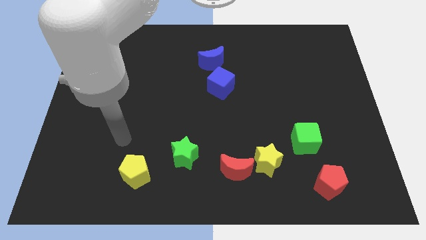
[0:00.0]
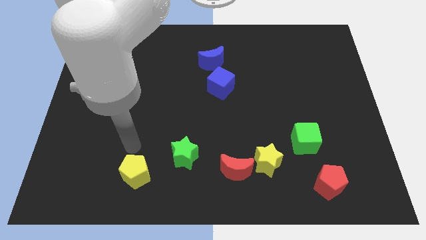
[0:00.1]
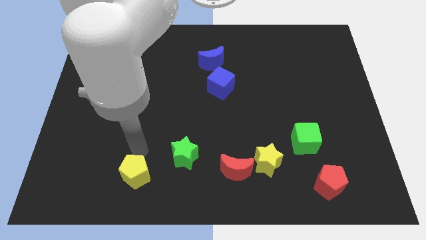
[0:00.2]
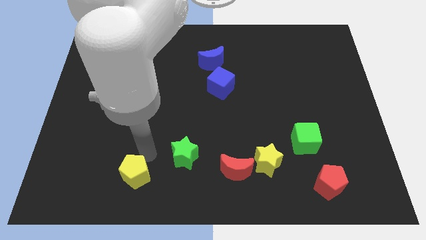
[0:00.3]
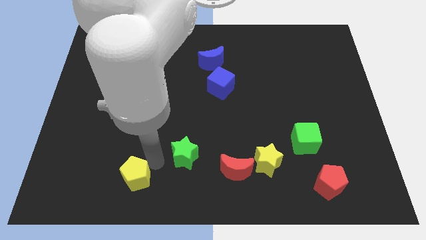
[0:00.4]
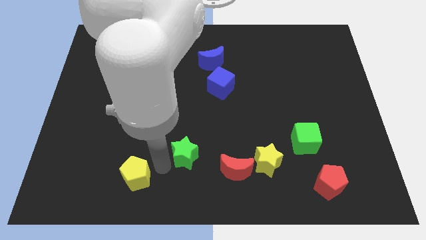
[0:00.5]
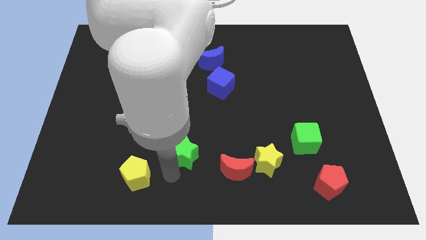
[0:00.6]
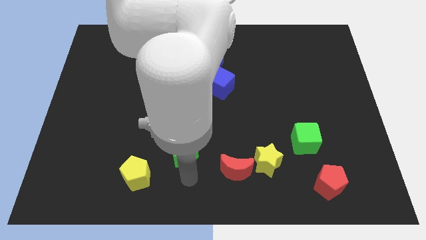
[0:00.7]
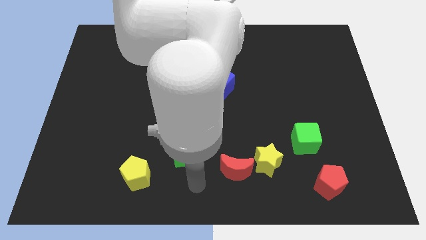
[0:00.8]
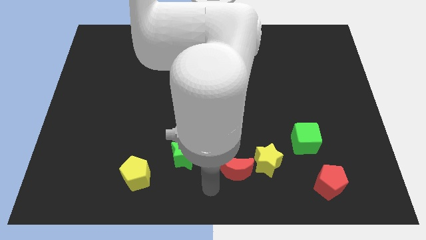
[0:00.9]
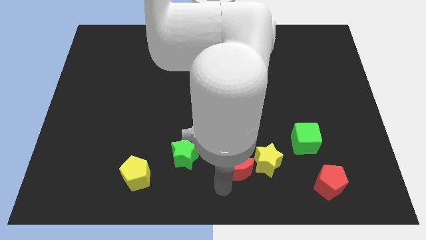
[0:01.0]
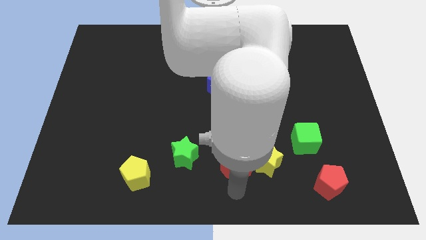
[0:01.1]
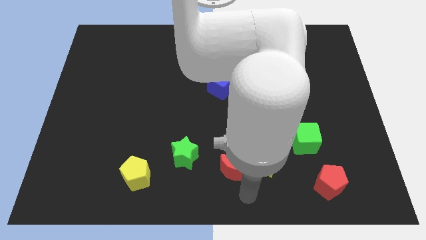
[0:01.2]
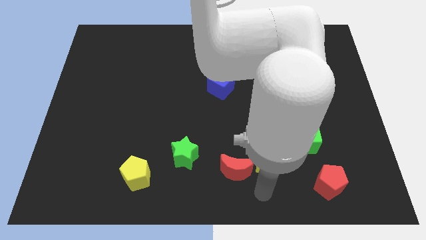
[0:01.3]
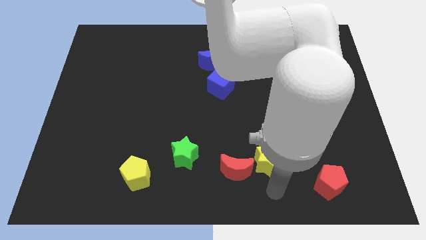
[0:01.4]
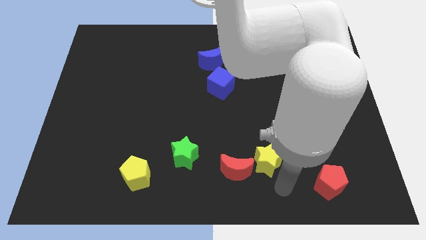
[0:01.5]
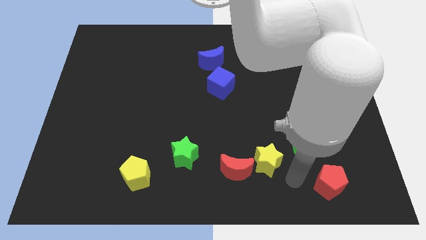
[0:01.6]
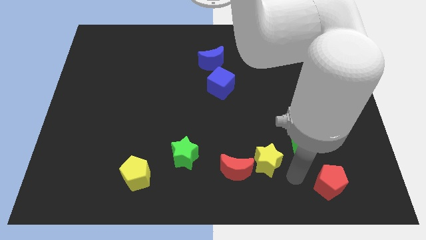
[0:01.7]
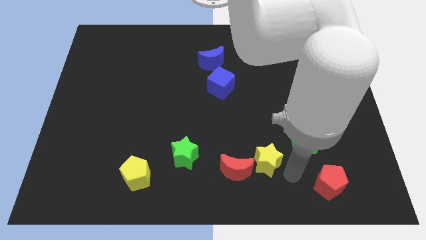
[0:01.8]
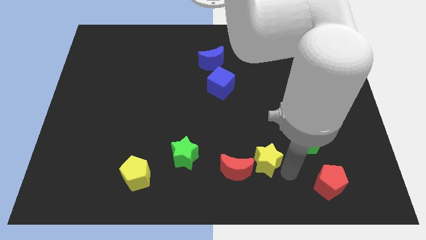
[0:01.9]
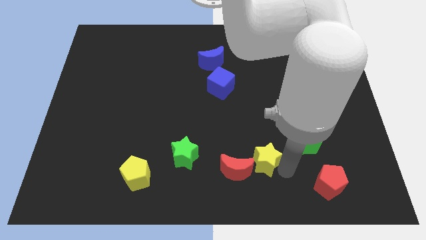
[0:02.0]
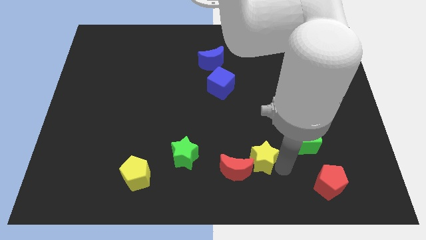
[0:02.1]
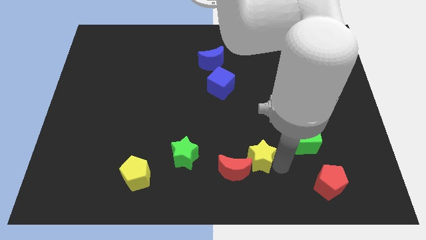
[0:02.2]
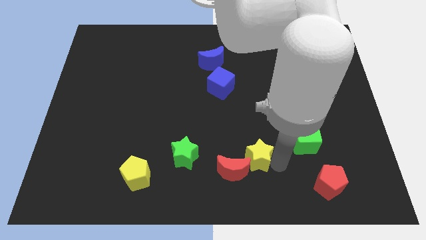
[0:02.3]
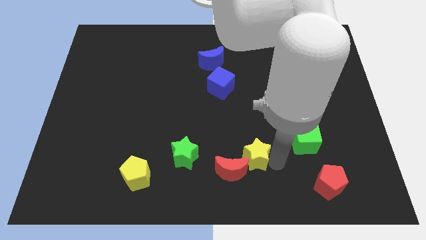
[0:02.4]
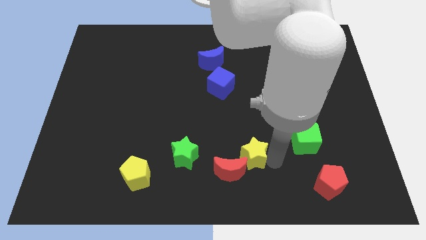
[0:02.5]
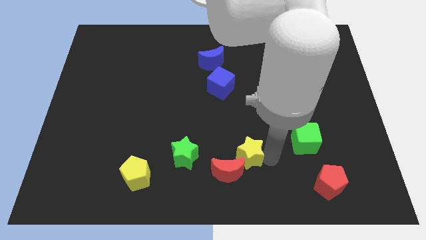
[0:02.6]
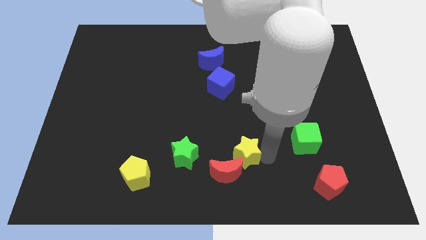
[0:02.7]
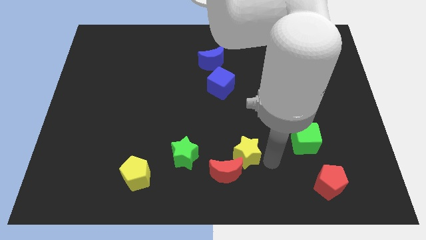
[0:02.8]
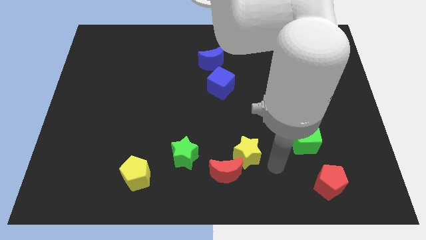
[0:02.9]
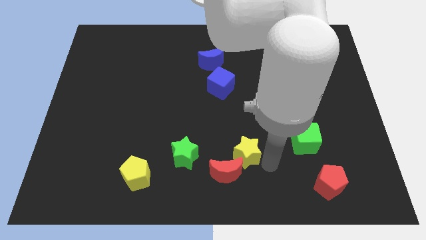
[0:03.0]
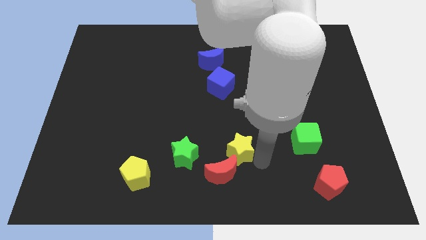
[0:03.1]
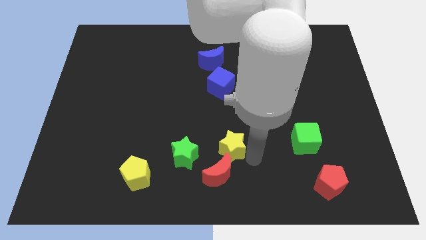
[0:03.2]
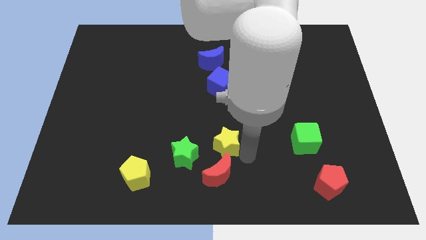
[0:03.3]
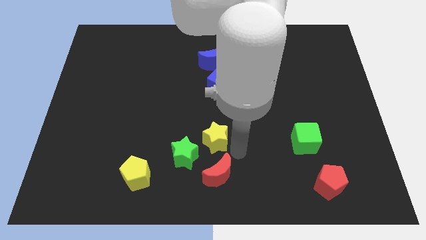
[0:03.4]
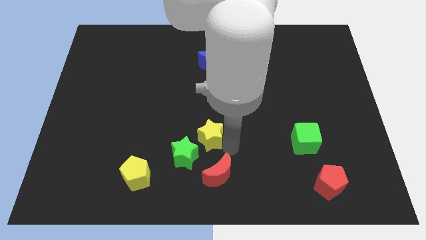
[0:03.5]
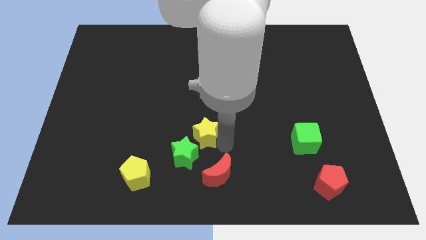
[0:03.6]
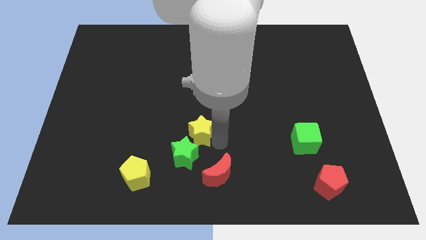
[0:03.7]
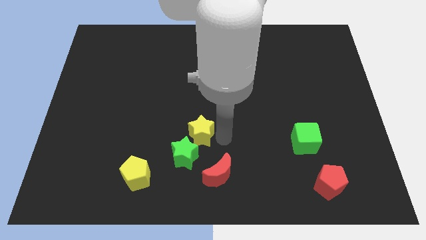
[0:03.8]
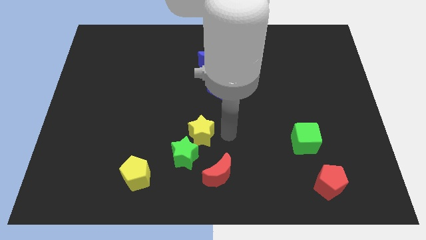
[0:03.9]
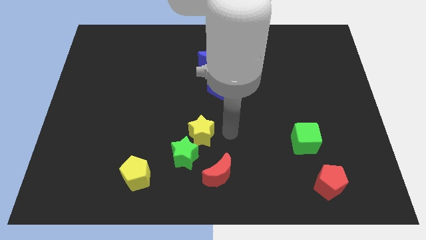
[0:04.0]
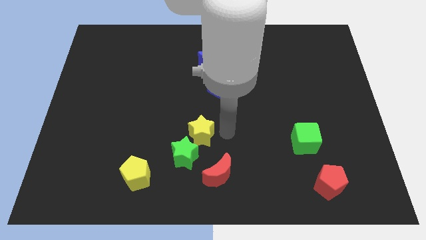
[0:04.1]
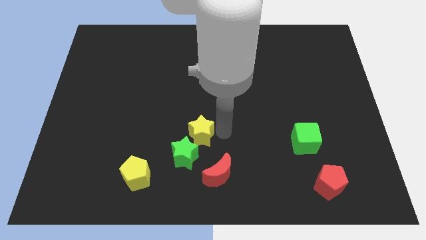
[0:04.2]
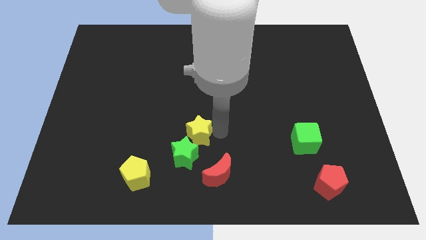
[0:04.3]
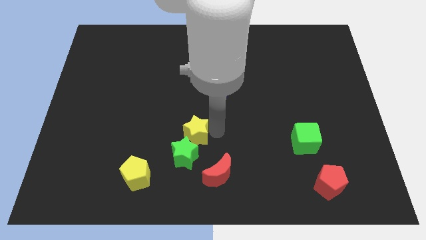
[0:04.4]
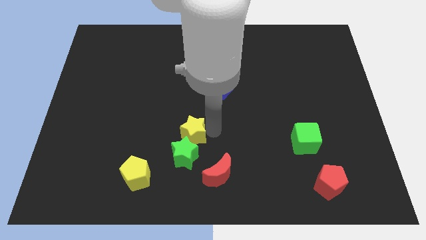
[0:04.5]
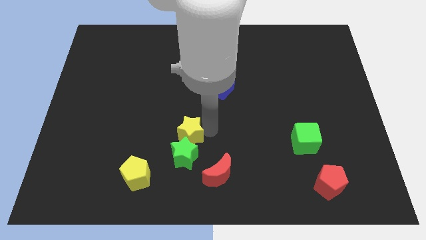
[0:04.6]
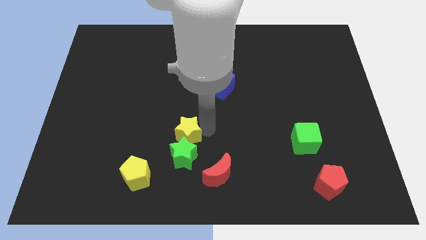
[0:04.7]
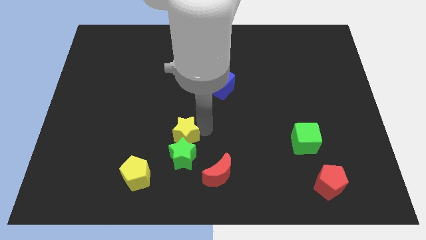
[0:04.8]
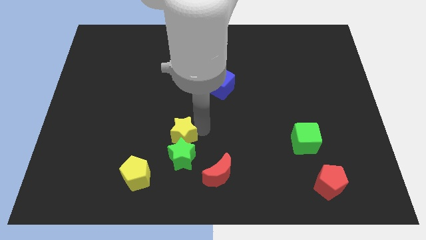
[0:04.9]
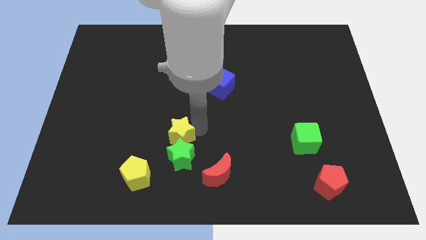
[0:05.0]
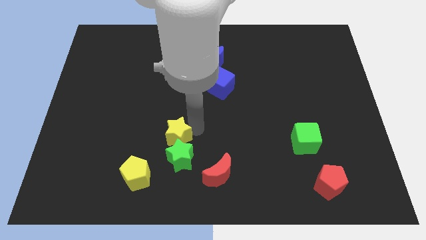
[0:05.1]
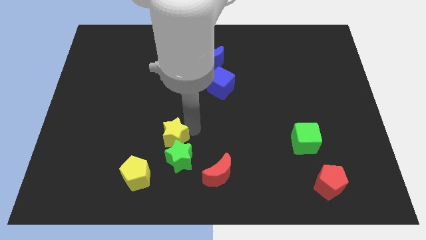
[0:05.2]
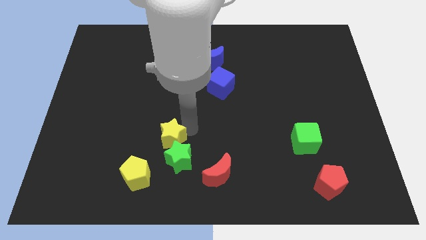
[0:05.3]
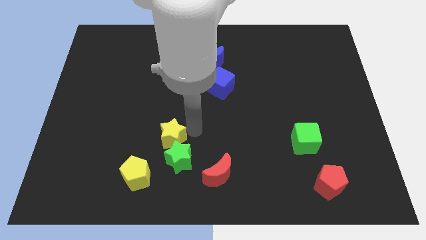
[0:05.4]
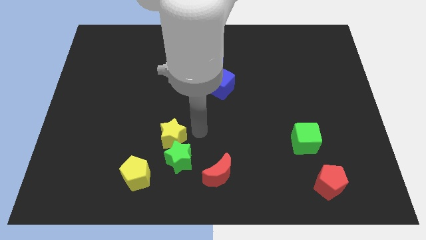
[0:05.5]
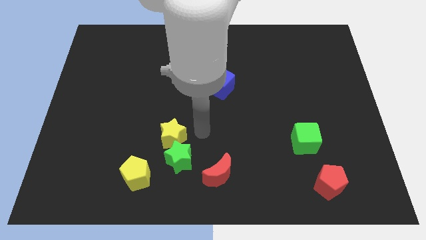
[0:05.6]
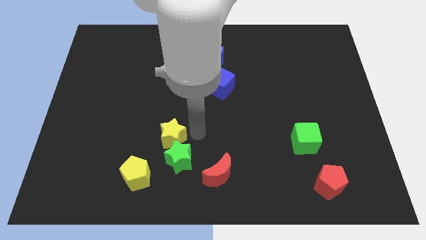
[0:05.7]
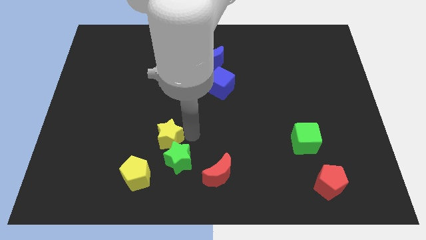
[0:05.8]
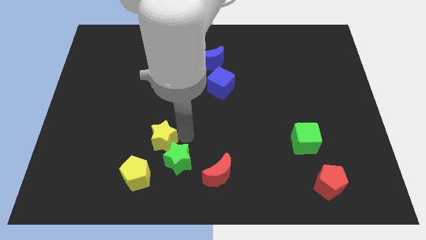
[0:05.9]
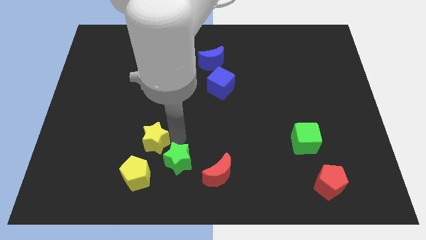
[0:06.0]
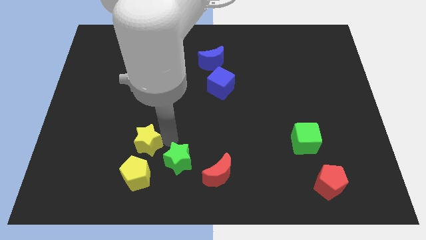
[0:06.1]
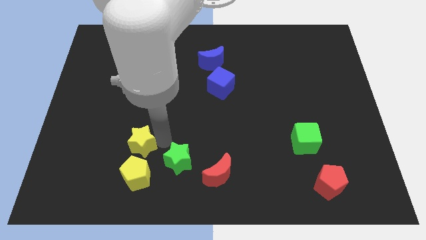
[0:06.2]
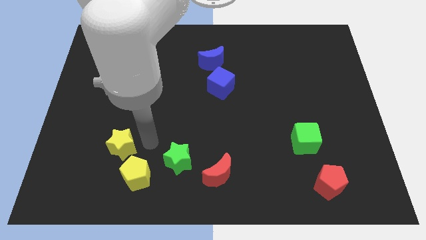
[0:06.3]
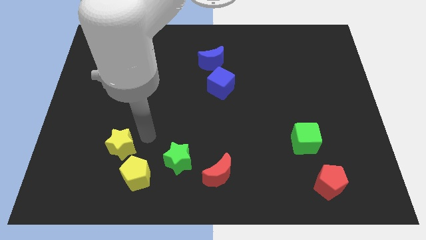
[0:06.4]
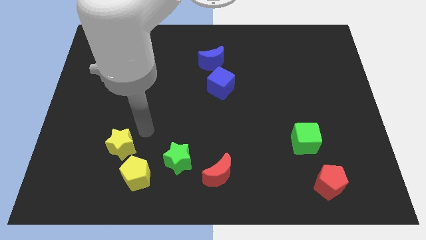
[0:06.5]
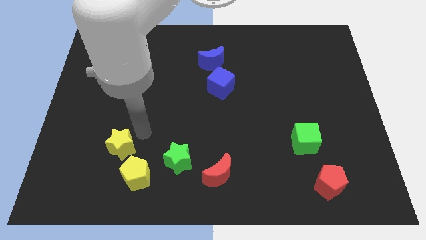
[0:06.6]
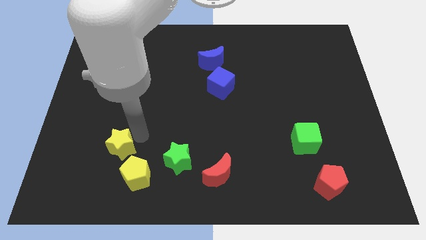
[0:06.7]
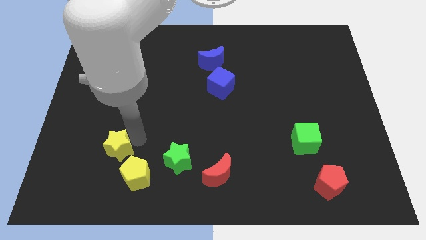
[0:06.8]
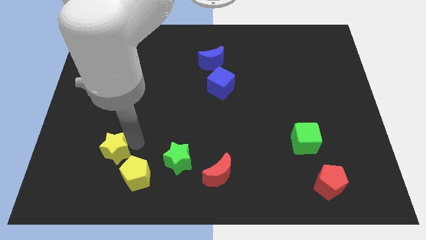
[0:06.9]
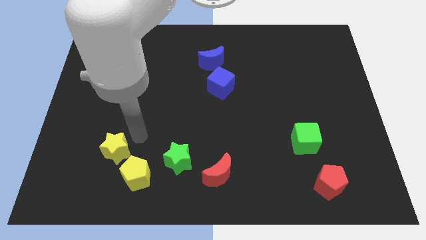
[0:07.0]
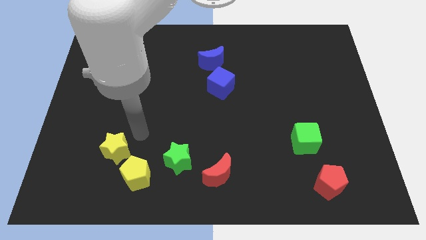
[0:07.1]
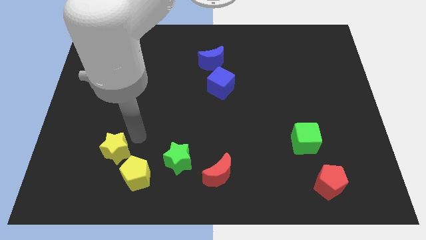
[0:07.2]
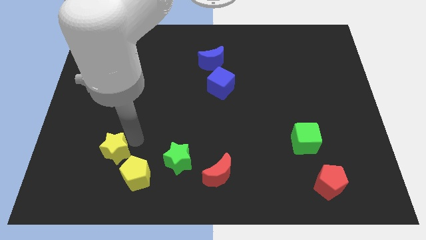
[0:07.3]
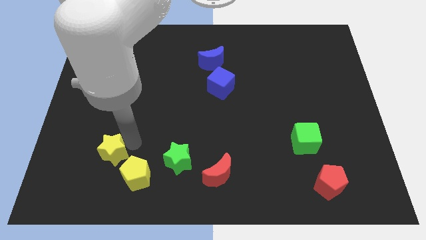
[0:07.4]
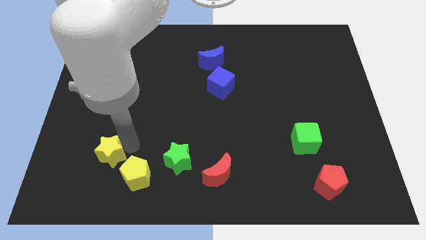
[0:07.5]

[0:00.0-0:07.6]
move the yellow star to the left side of the yellow pentagon
